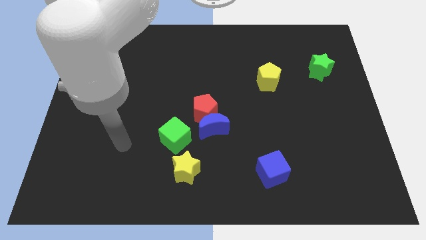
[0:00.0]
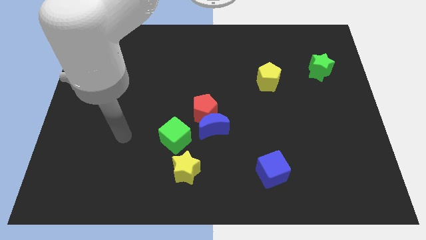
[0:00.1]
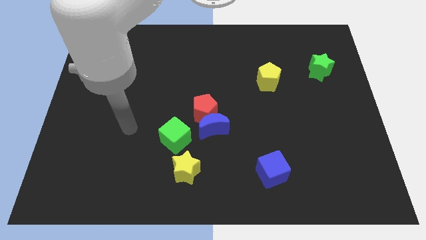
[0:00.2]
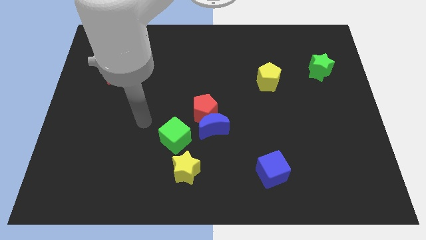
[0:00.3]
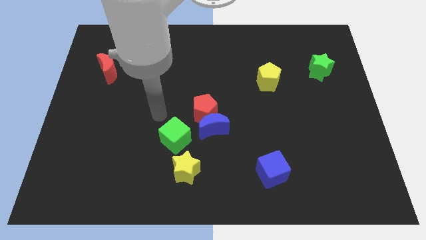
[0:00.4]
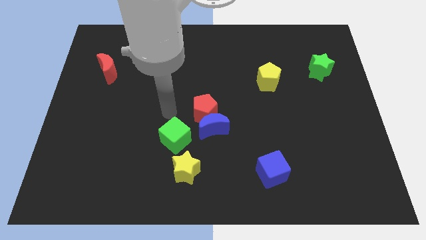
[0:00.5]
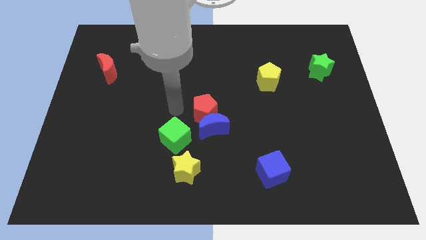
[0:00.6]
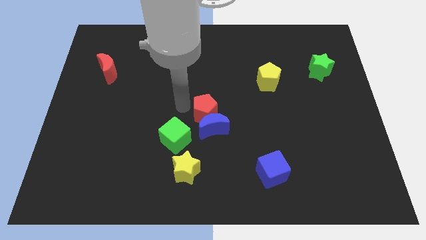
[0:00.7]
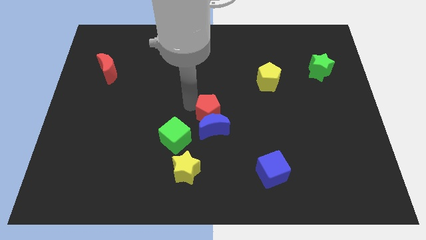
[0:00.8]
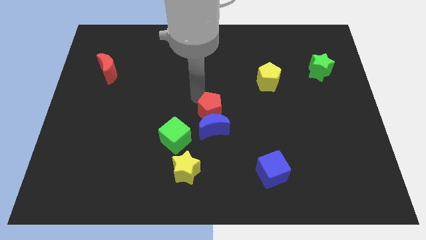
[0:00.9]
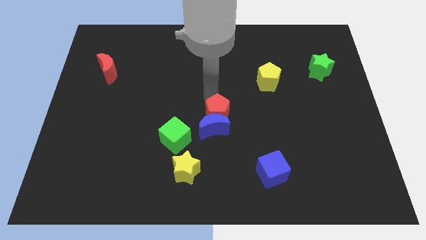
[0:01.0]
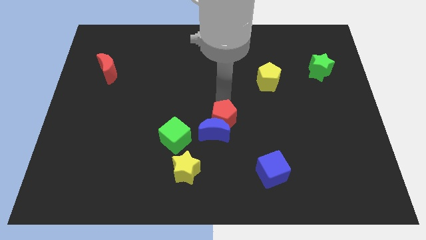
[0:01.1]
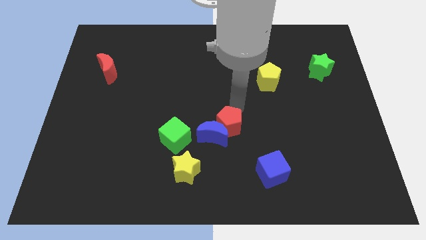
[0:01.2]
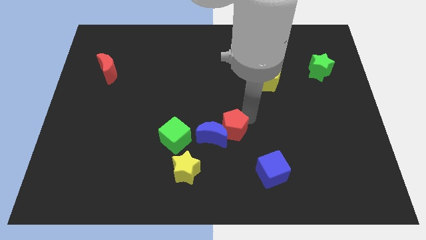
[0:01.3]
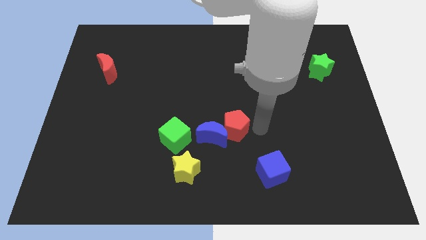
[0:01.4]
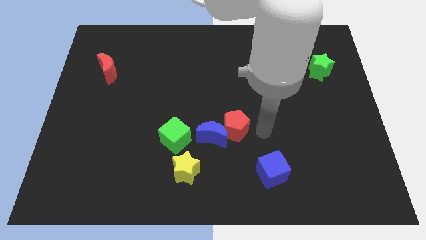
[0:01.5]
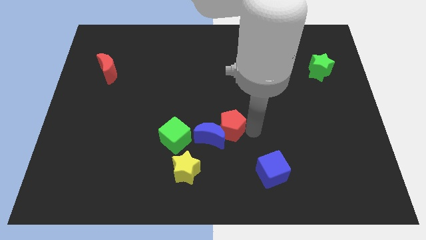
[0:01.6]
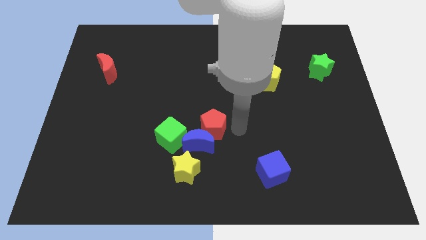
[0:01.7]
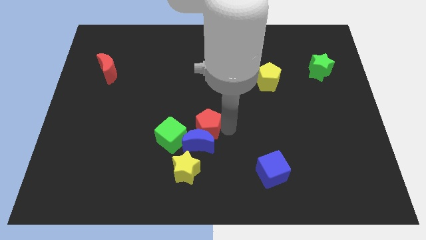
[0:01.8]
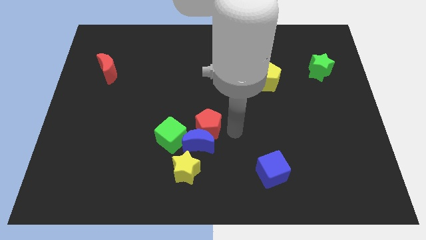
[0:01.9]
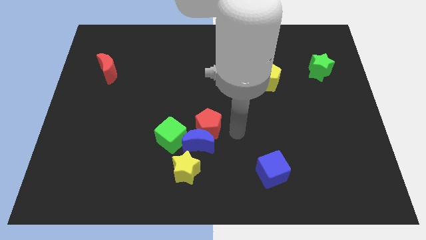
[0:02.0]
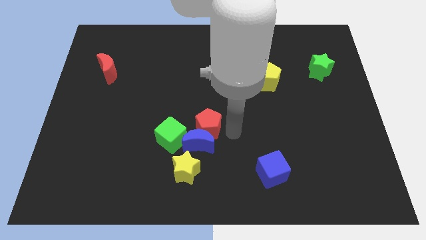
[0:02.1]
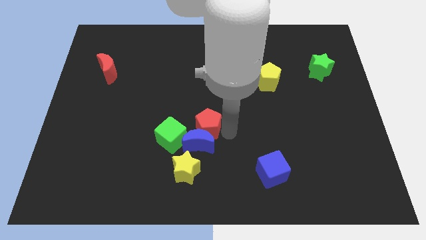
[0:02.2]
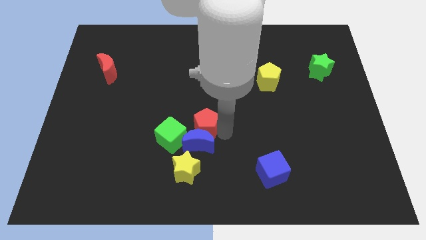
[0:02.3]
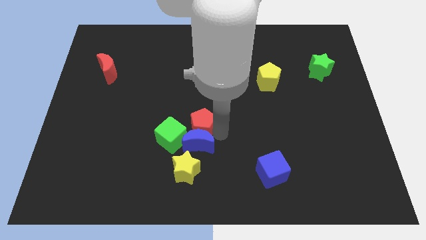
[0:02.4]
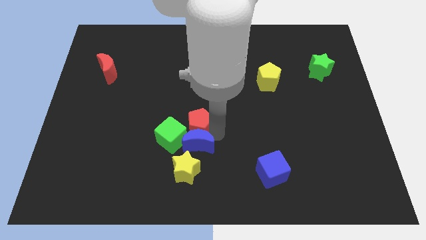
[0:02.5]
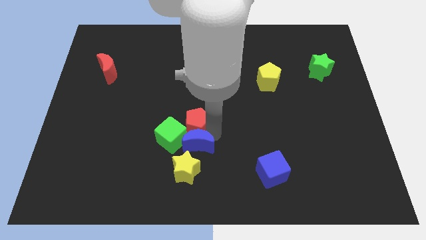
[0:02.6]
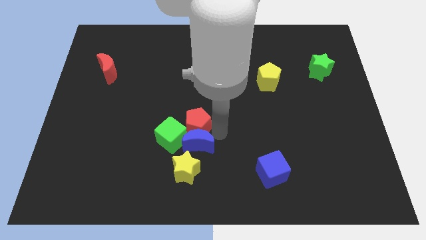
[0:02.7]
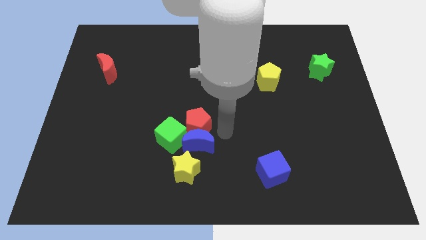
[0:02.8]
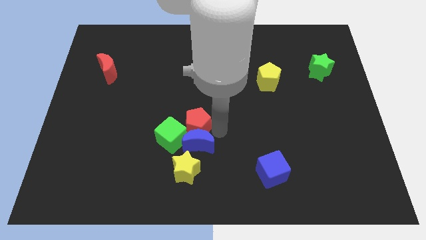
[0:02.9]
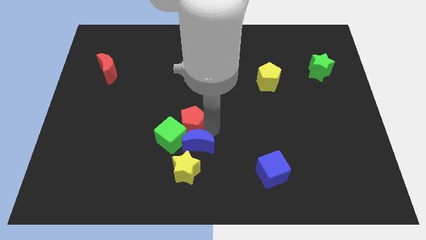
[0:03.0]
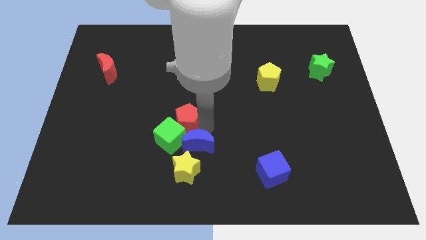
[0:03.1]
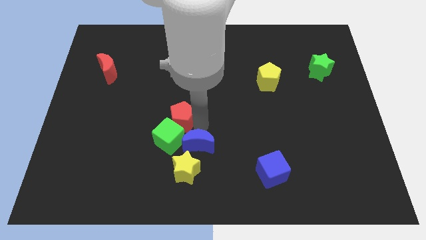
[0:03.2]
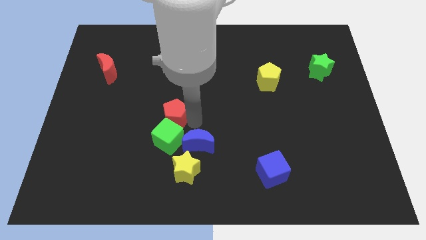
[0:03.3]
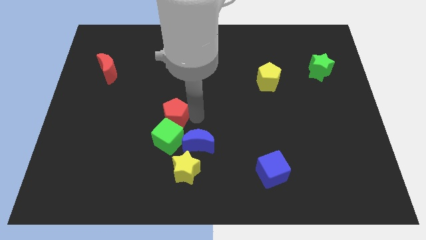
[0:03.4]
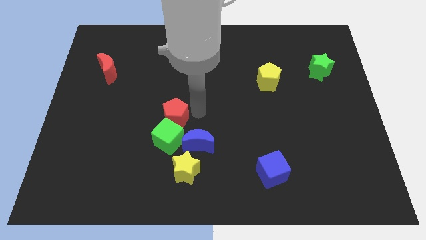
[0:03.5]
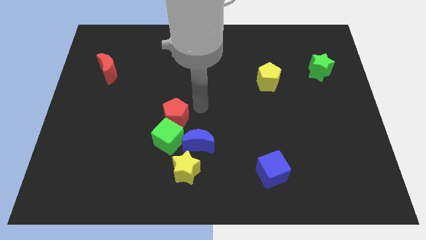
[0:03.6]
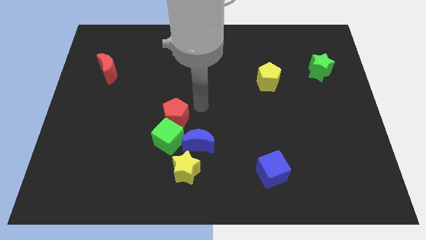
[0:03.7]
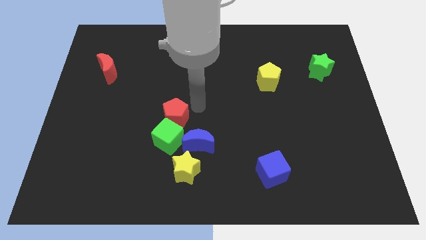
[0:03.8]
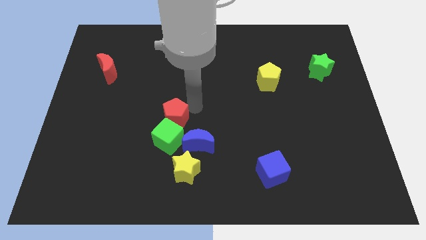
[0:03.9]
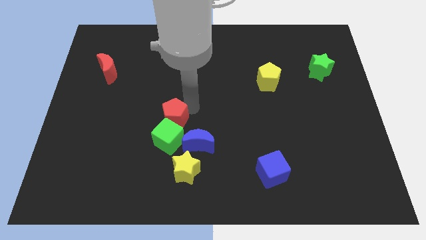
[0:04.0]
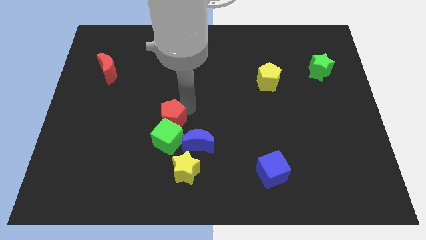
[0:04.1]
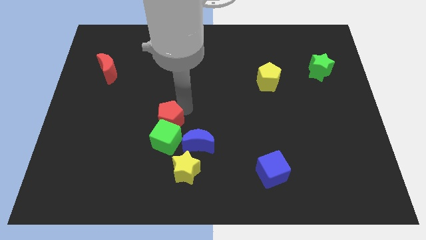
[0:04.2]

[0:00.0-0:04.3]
slide the red pentagon down and left a bit

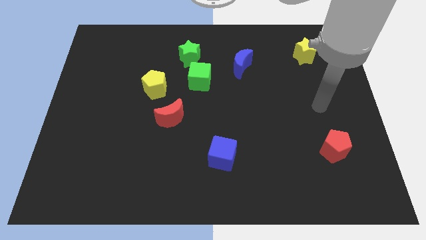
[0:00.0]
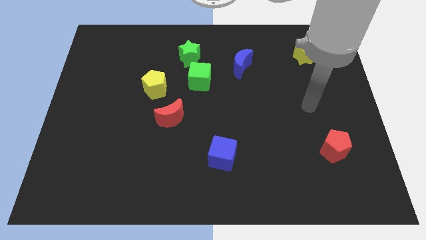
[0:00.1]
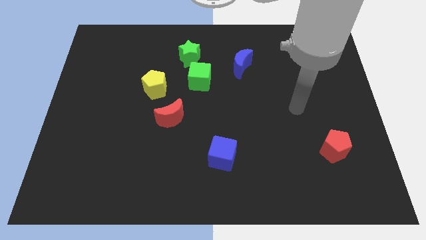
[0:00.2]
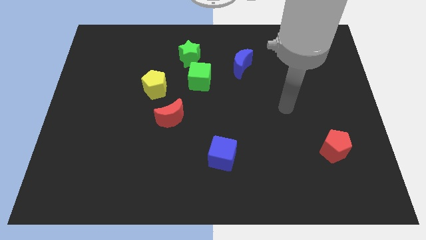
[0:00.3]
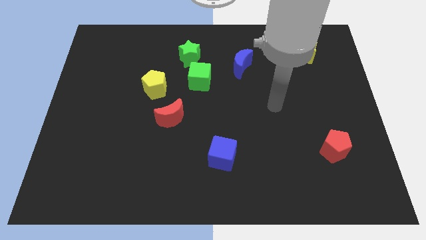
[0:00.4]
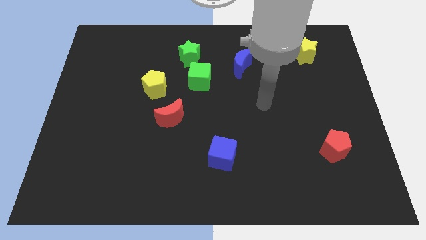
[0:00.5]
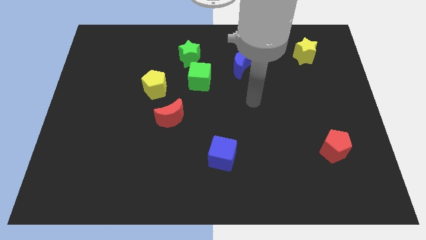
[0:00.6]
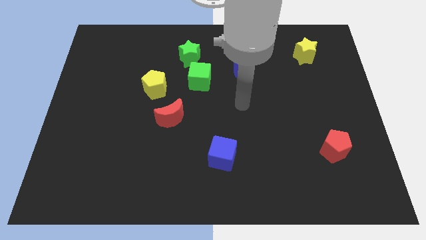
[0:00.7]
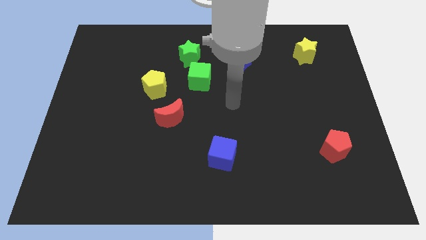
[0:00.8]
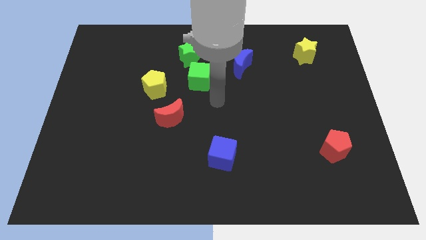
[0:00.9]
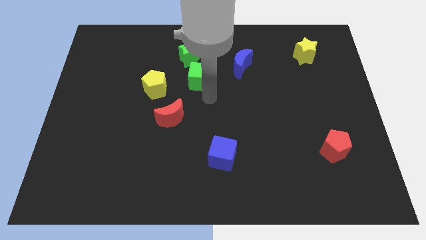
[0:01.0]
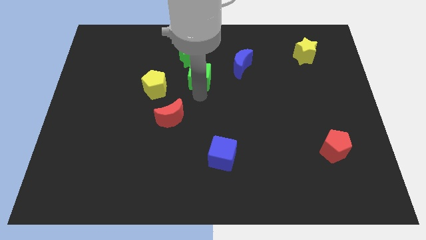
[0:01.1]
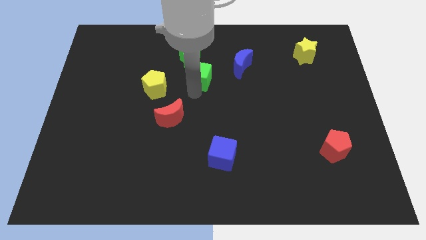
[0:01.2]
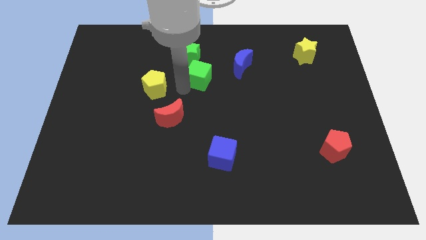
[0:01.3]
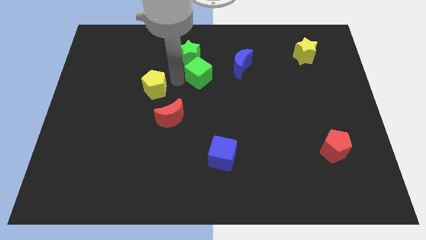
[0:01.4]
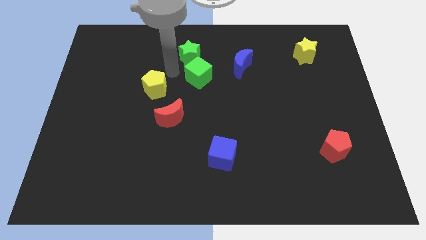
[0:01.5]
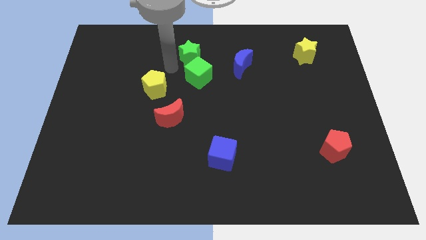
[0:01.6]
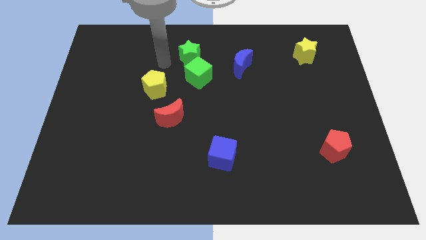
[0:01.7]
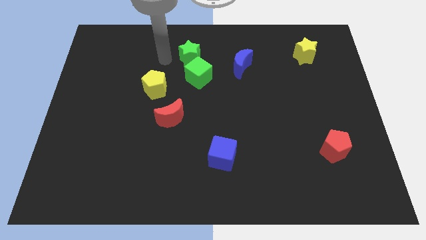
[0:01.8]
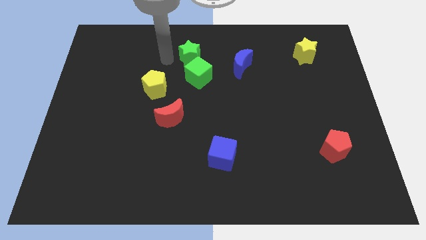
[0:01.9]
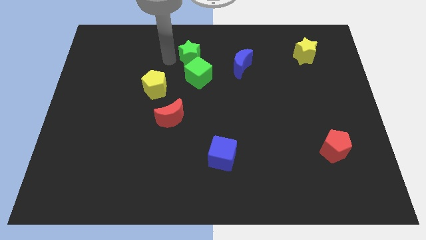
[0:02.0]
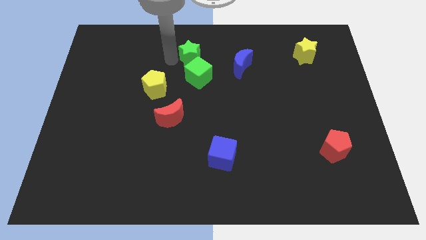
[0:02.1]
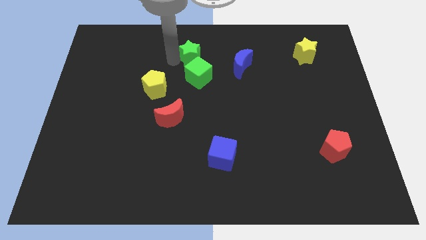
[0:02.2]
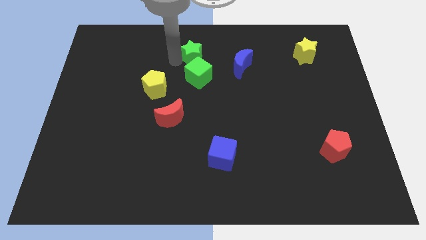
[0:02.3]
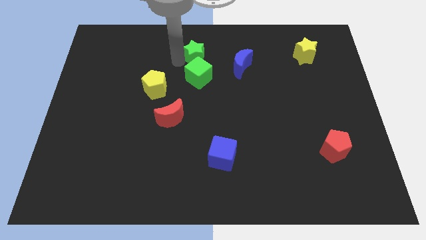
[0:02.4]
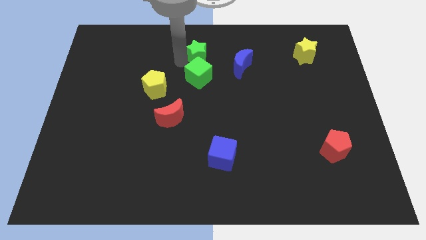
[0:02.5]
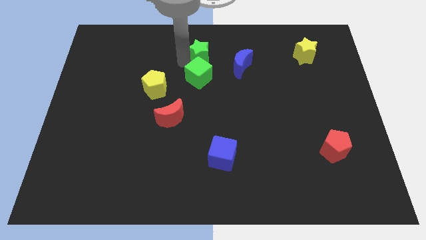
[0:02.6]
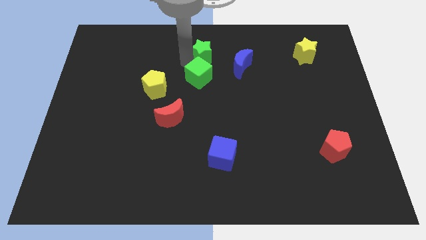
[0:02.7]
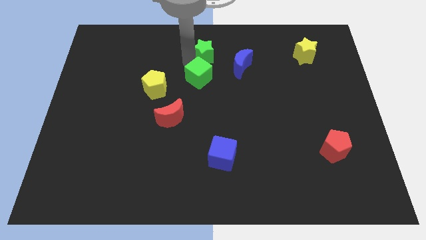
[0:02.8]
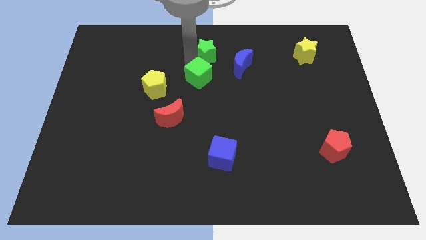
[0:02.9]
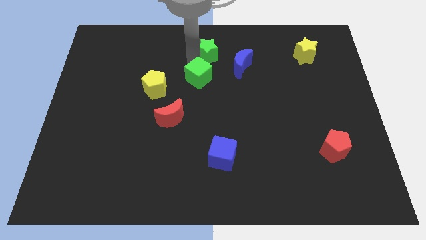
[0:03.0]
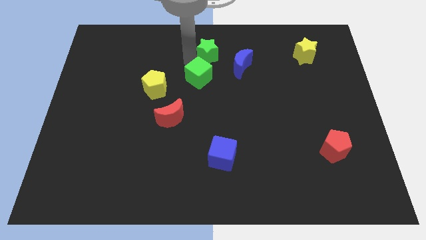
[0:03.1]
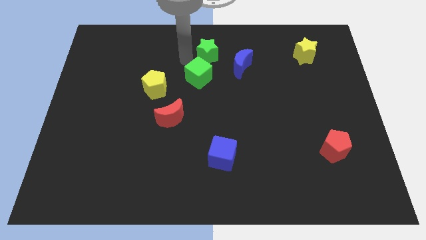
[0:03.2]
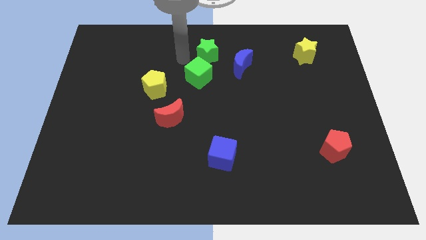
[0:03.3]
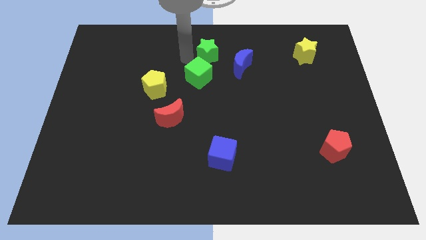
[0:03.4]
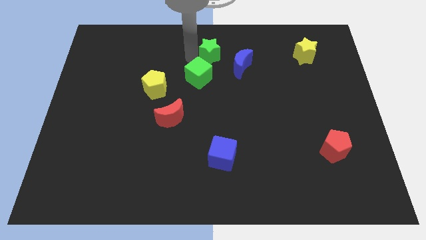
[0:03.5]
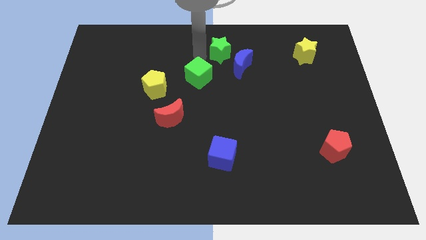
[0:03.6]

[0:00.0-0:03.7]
push the green star a bit right

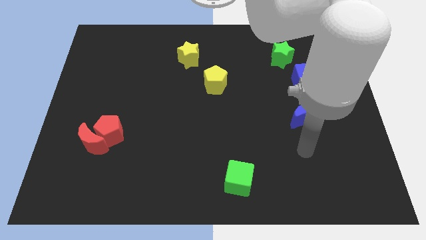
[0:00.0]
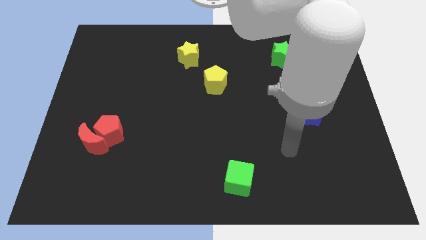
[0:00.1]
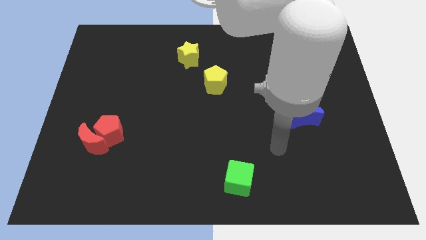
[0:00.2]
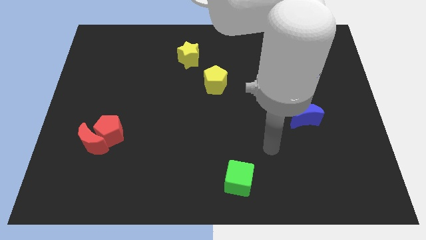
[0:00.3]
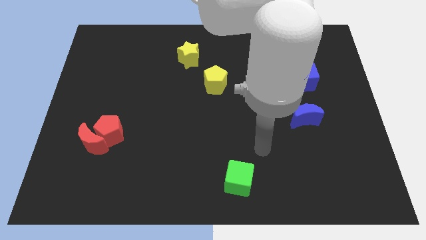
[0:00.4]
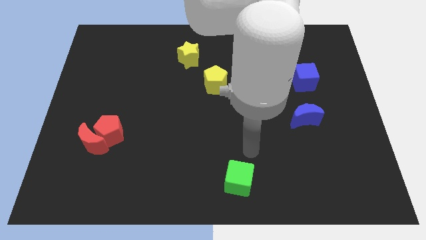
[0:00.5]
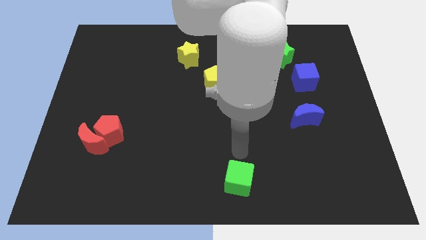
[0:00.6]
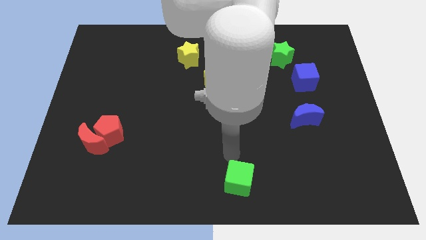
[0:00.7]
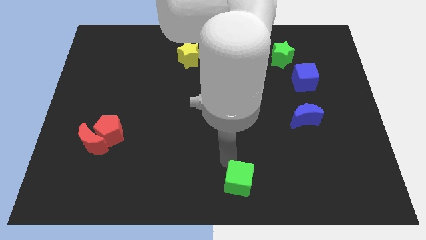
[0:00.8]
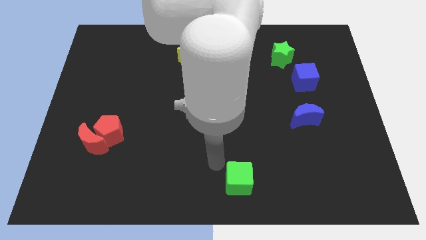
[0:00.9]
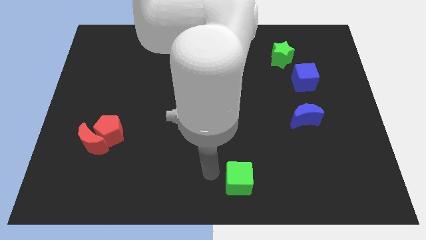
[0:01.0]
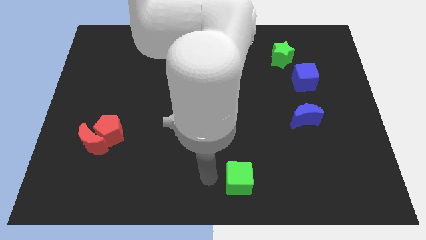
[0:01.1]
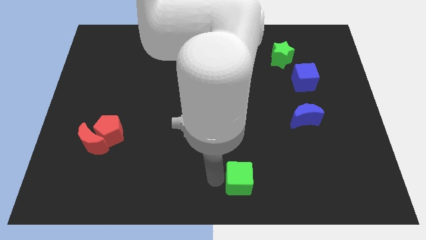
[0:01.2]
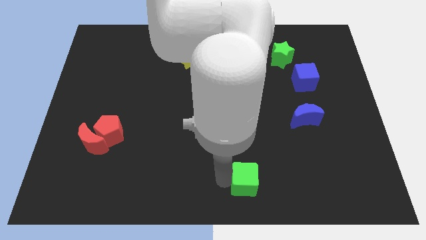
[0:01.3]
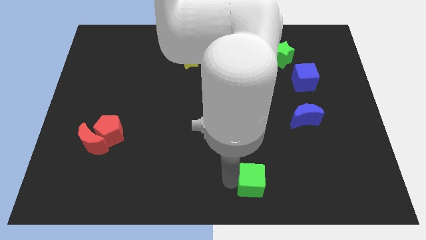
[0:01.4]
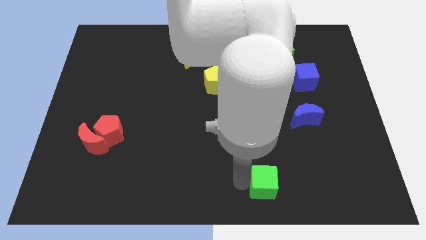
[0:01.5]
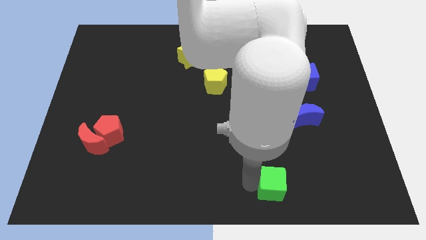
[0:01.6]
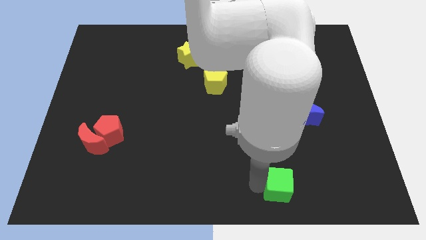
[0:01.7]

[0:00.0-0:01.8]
slide the green cube slightly to the right
